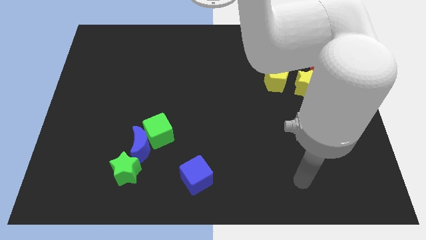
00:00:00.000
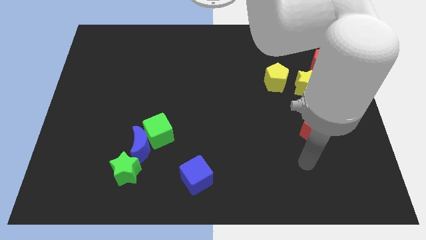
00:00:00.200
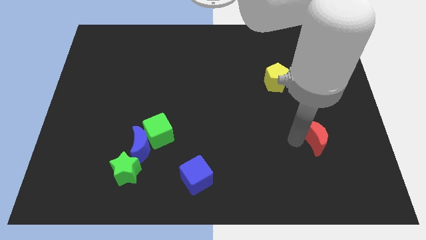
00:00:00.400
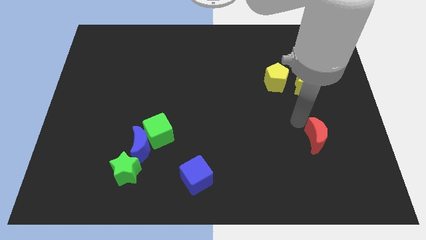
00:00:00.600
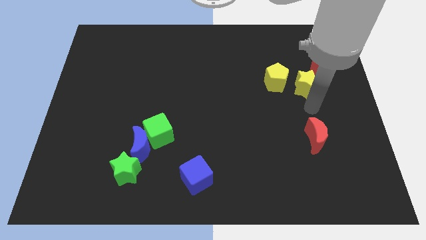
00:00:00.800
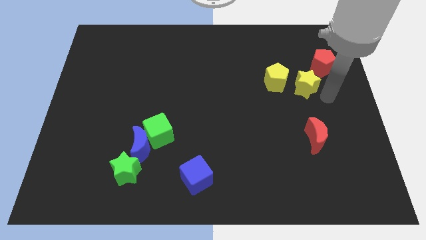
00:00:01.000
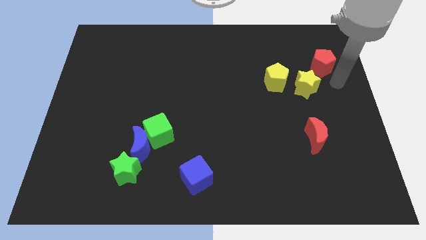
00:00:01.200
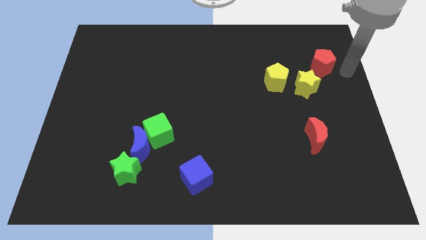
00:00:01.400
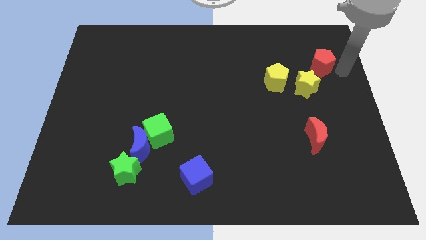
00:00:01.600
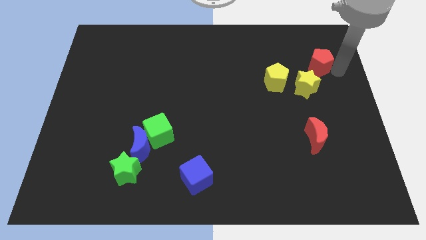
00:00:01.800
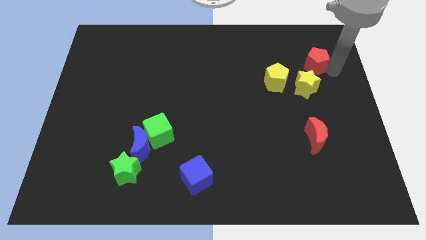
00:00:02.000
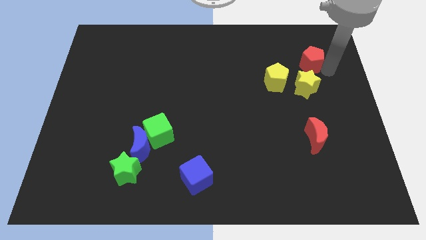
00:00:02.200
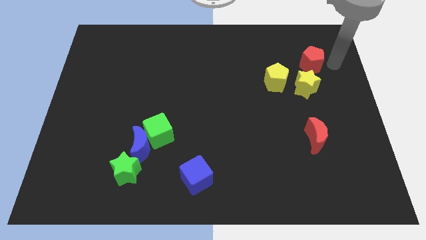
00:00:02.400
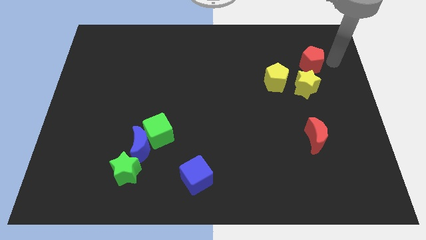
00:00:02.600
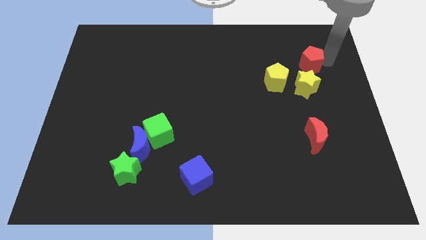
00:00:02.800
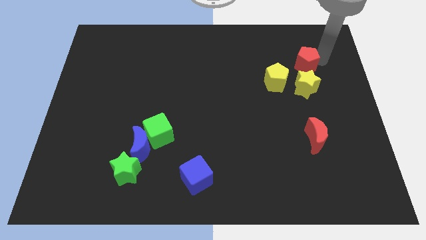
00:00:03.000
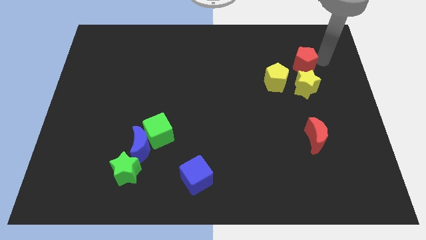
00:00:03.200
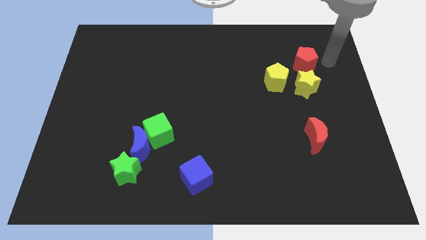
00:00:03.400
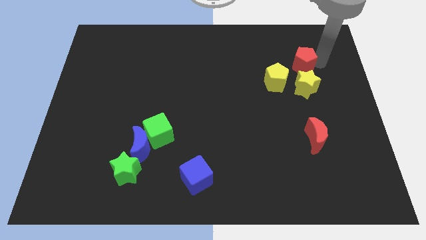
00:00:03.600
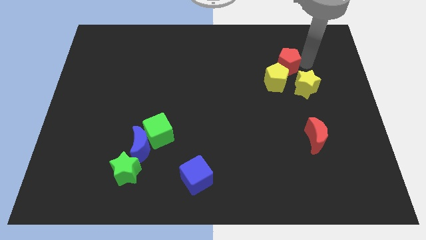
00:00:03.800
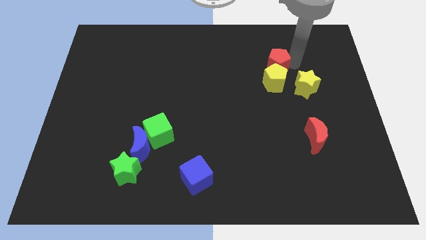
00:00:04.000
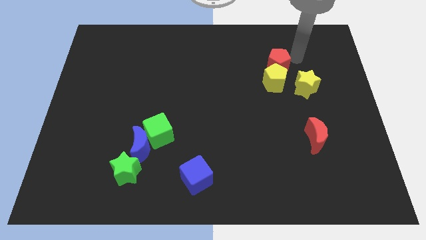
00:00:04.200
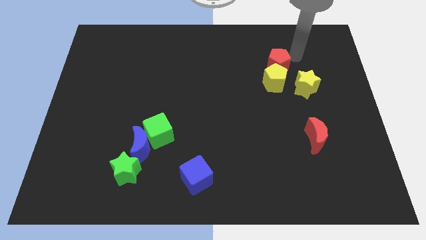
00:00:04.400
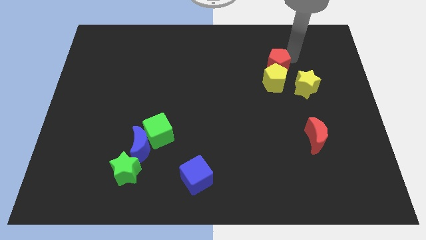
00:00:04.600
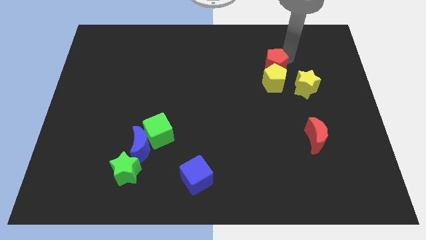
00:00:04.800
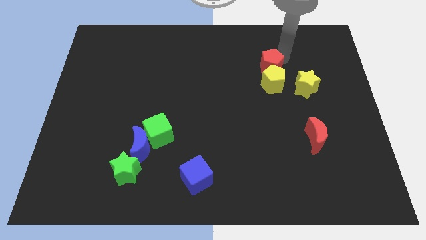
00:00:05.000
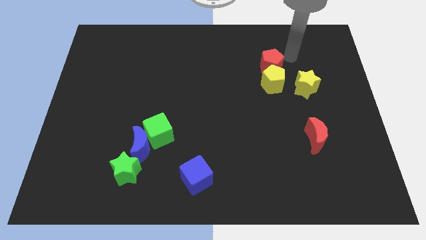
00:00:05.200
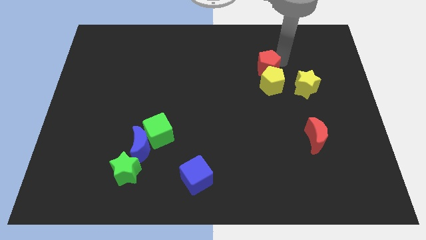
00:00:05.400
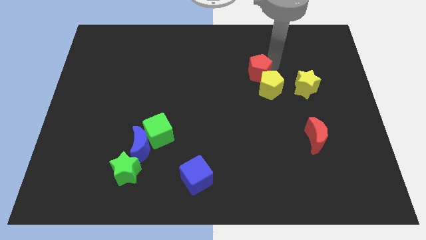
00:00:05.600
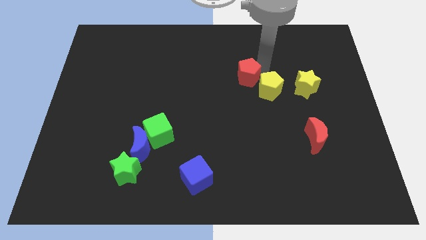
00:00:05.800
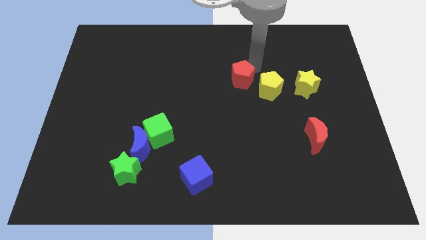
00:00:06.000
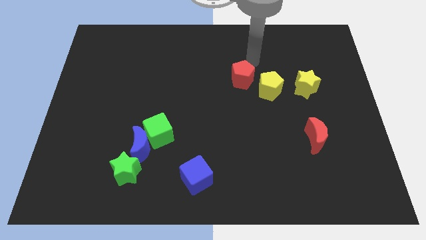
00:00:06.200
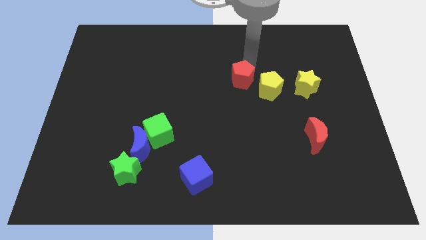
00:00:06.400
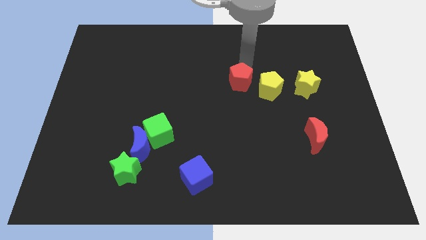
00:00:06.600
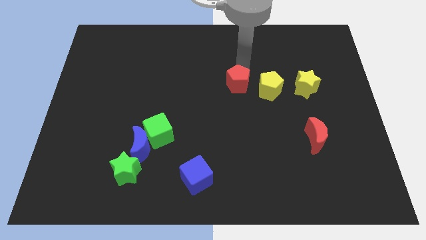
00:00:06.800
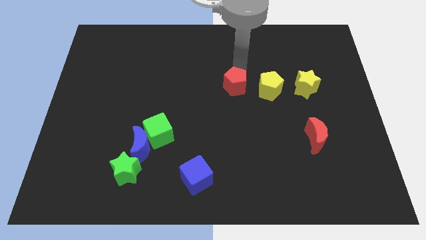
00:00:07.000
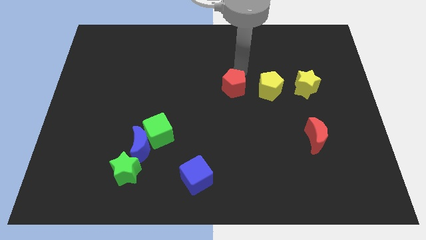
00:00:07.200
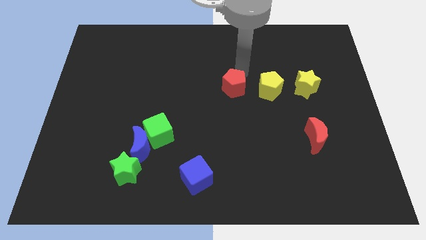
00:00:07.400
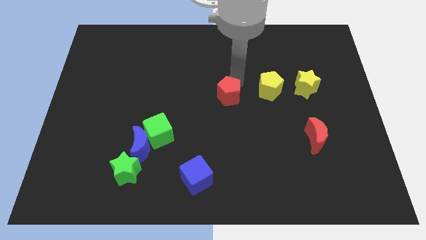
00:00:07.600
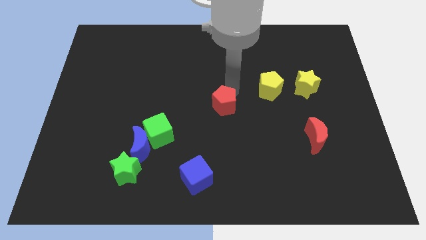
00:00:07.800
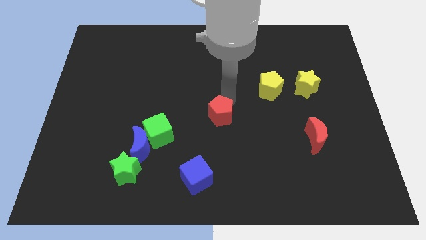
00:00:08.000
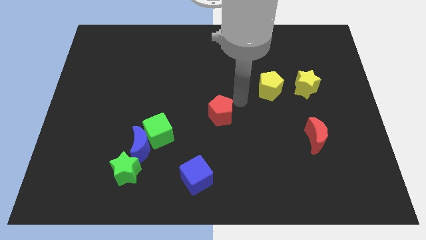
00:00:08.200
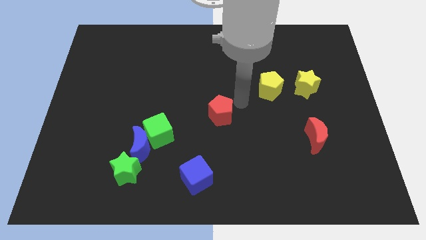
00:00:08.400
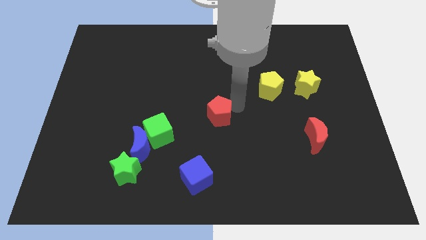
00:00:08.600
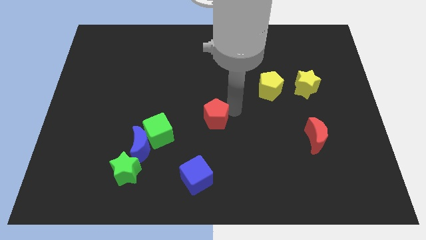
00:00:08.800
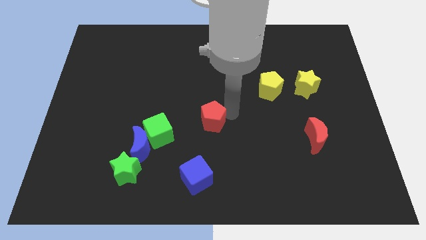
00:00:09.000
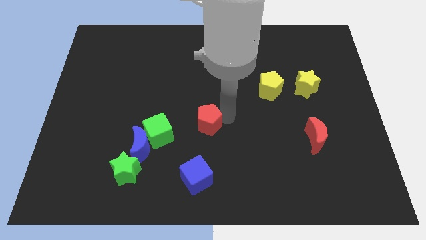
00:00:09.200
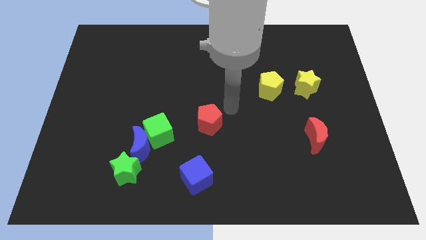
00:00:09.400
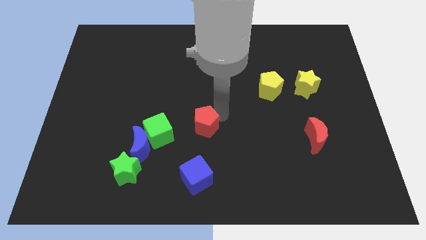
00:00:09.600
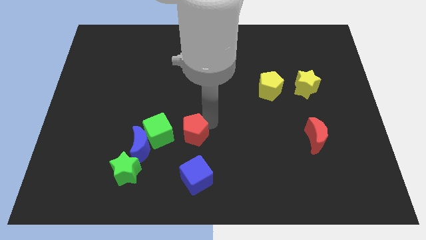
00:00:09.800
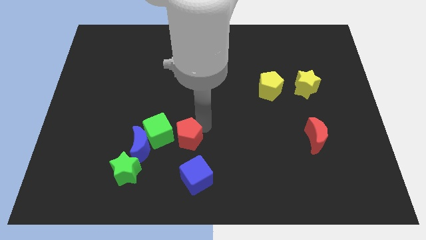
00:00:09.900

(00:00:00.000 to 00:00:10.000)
push the red pentagon diagonally down and to the right of the green cube

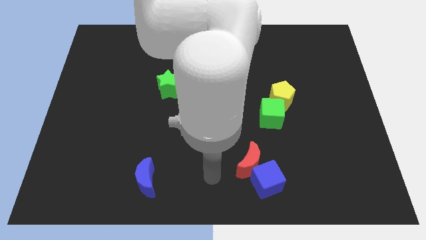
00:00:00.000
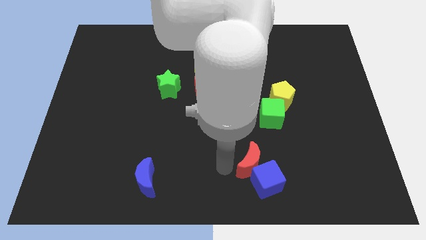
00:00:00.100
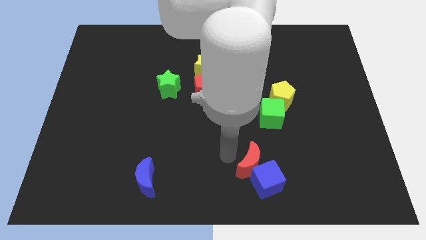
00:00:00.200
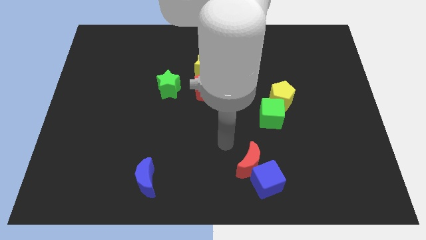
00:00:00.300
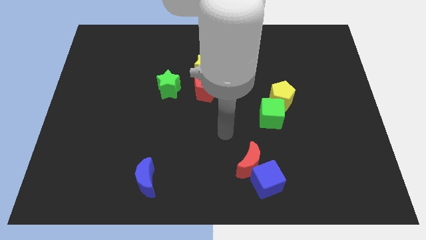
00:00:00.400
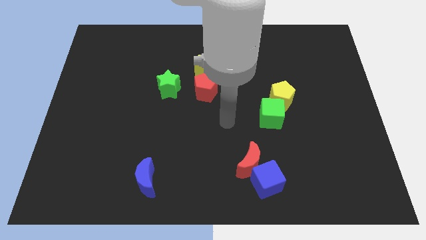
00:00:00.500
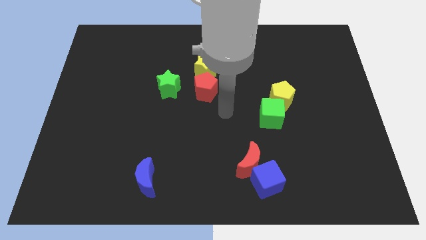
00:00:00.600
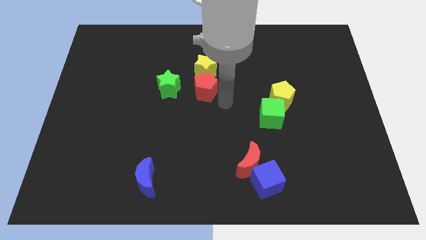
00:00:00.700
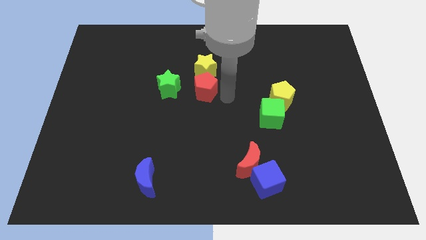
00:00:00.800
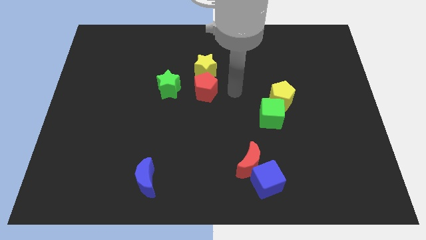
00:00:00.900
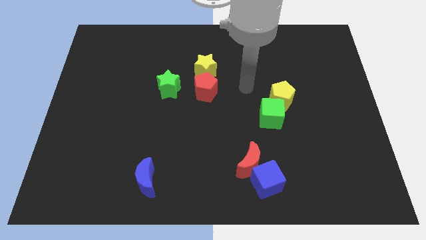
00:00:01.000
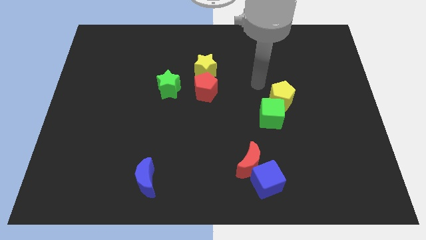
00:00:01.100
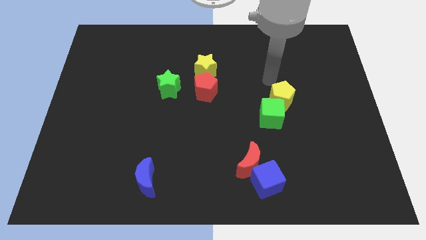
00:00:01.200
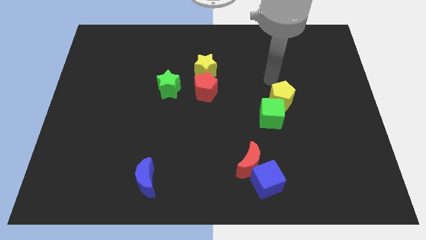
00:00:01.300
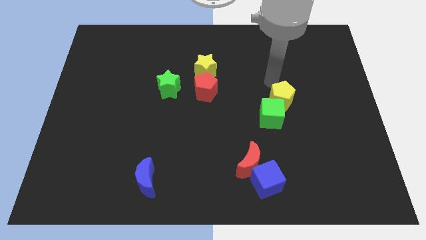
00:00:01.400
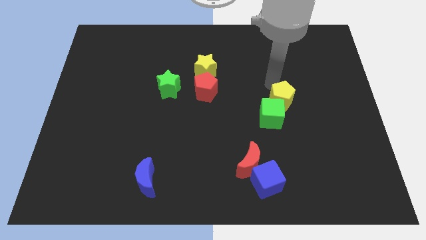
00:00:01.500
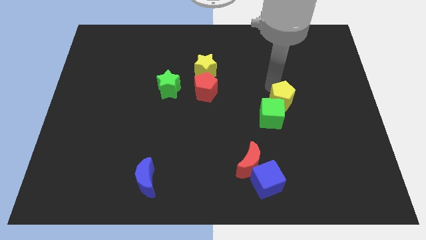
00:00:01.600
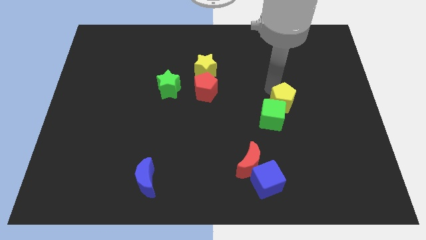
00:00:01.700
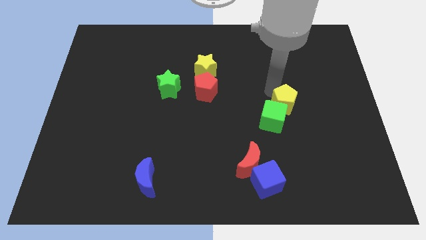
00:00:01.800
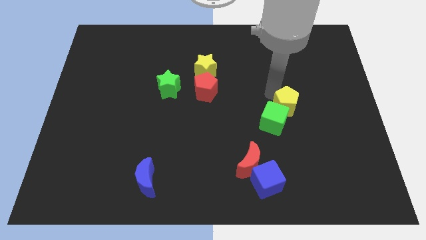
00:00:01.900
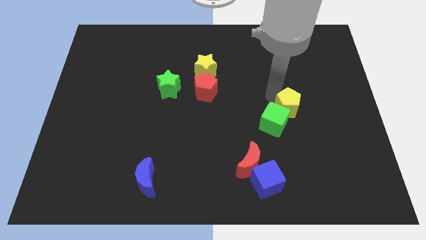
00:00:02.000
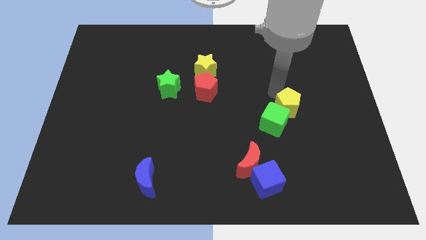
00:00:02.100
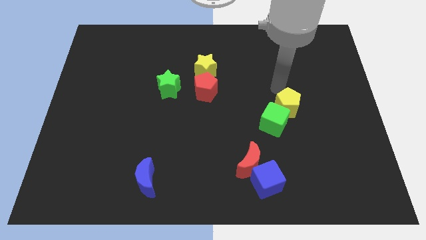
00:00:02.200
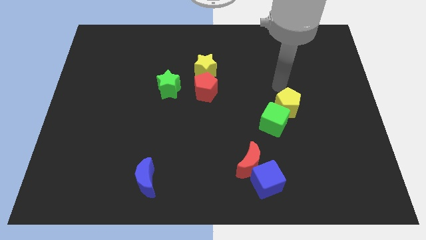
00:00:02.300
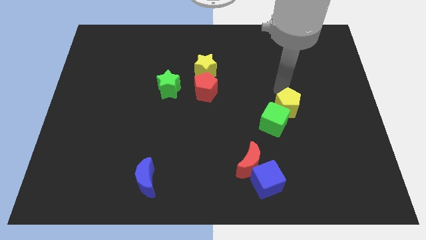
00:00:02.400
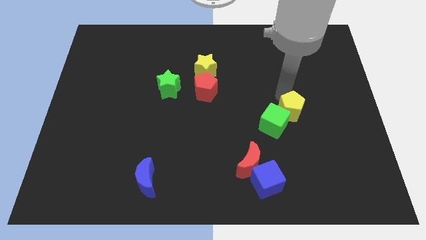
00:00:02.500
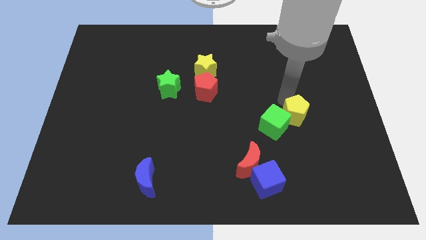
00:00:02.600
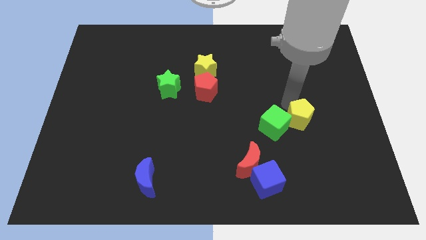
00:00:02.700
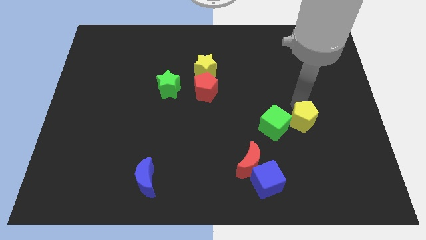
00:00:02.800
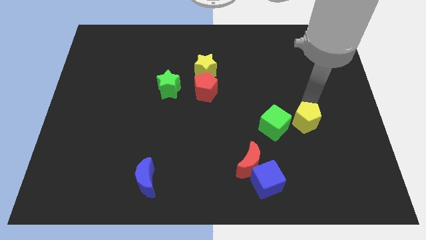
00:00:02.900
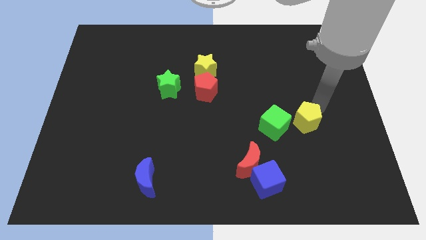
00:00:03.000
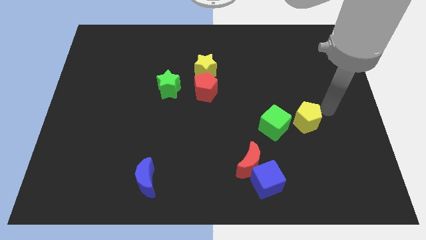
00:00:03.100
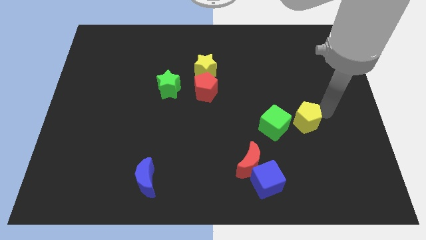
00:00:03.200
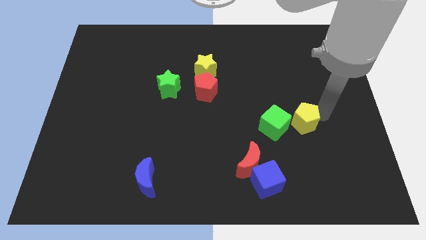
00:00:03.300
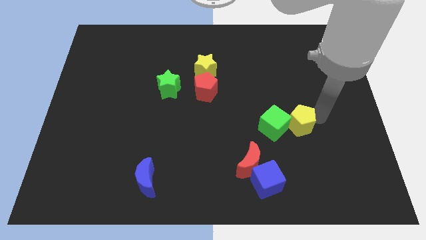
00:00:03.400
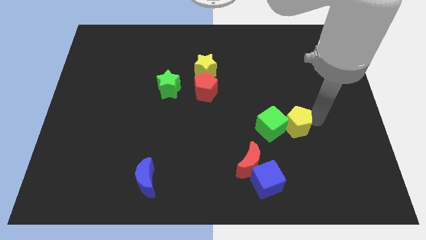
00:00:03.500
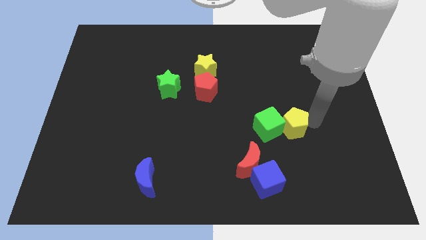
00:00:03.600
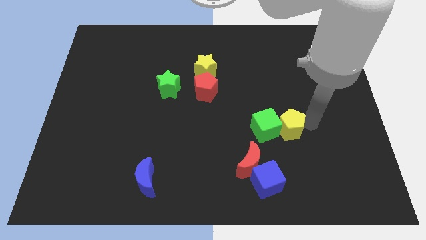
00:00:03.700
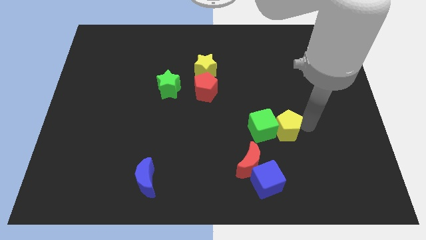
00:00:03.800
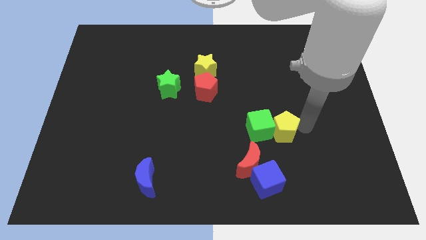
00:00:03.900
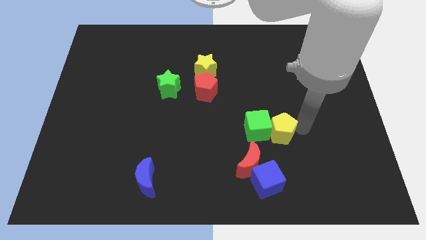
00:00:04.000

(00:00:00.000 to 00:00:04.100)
slide the yellow pentagon to the top side of the blue cube
